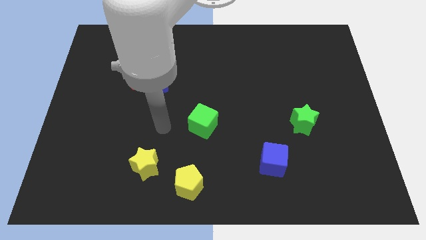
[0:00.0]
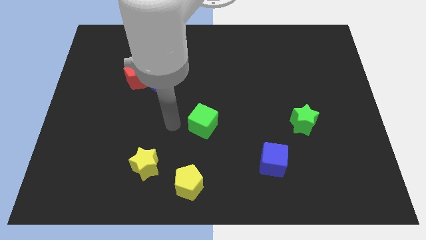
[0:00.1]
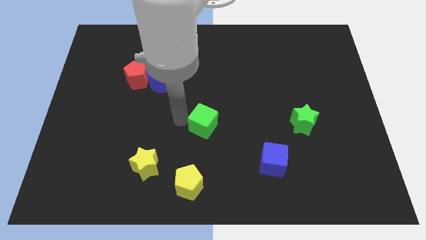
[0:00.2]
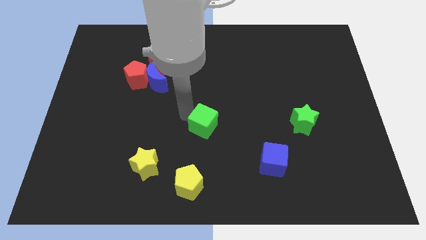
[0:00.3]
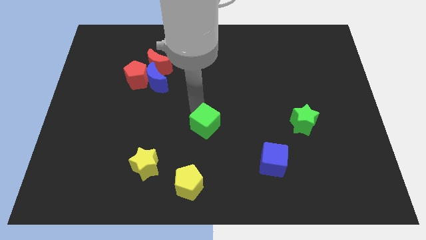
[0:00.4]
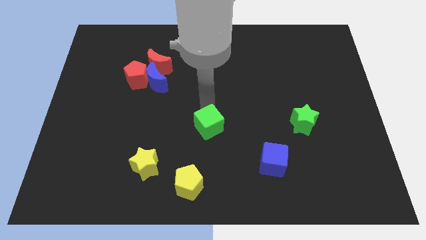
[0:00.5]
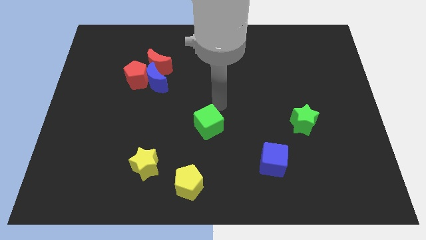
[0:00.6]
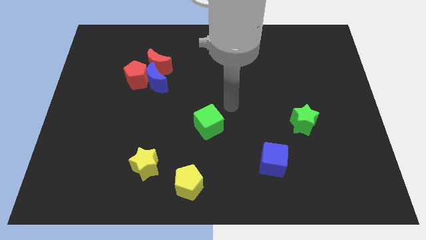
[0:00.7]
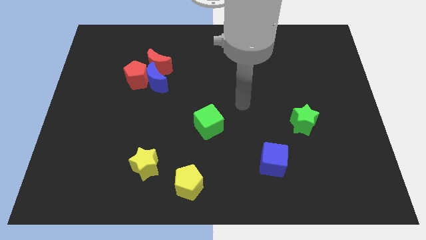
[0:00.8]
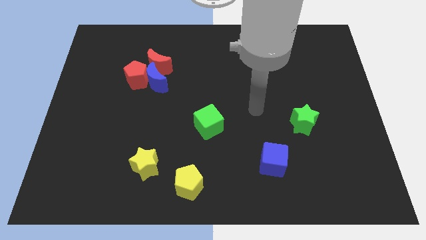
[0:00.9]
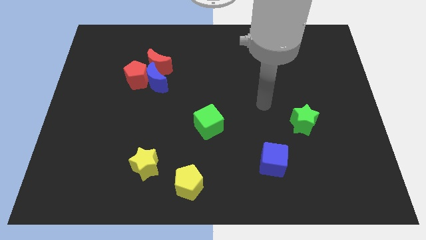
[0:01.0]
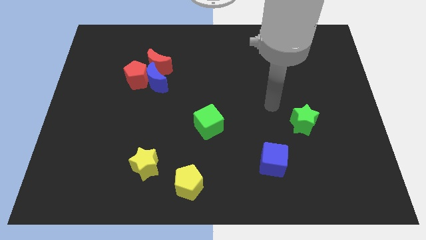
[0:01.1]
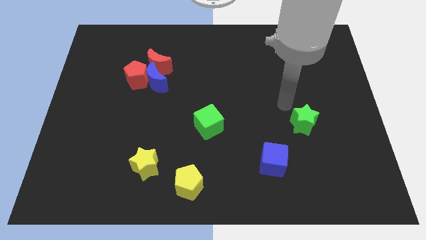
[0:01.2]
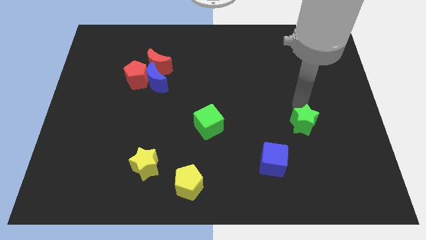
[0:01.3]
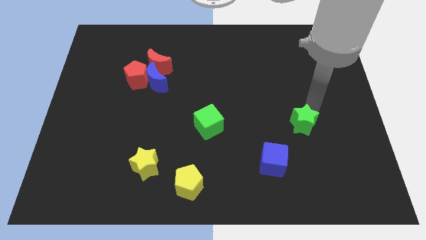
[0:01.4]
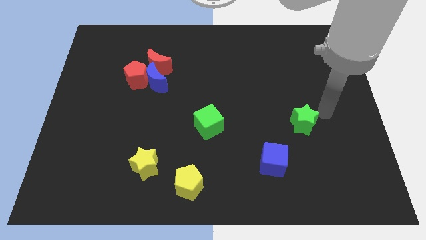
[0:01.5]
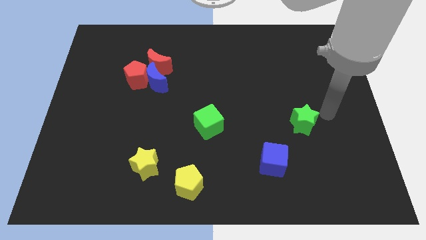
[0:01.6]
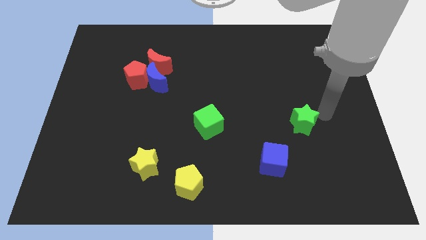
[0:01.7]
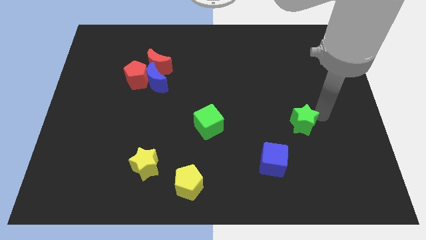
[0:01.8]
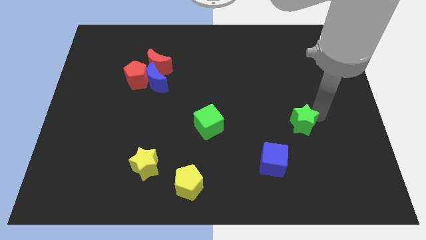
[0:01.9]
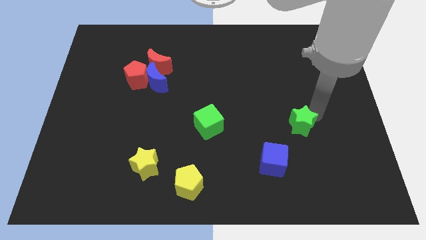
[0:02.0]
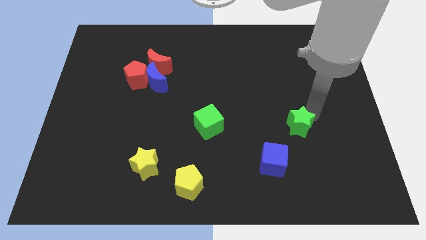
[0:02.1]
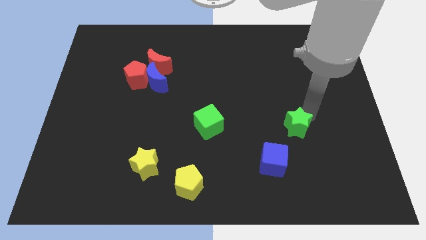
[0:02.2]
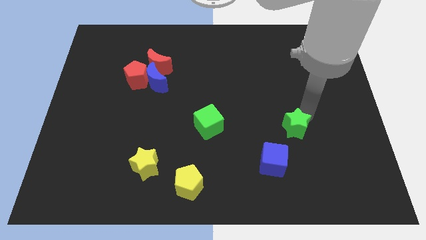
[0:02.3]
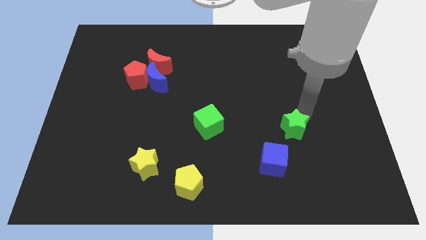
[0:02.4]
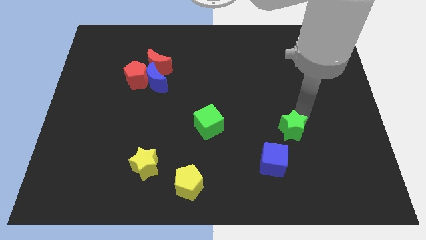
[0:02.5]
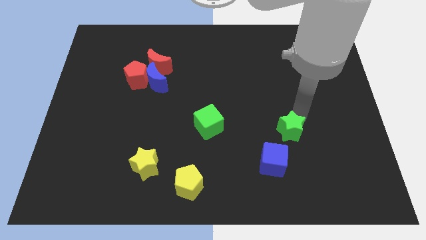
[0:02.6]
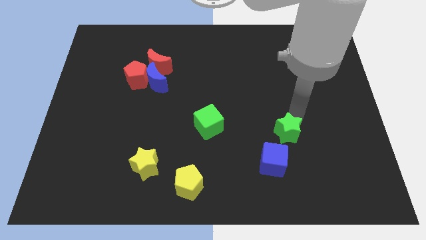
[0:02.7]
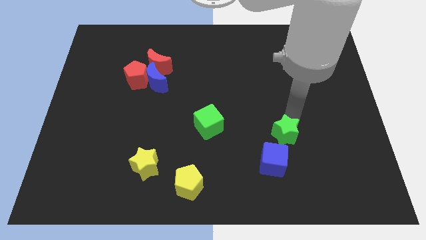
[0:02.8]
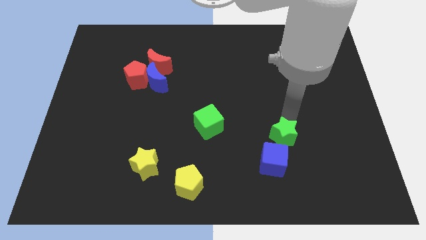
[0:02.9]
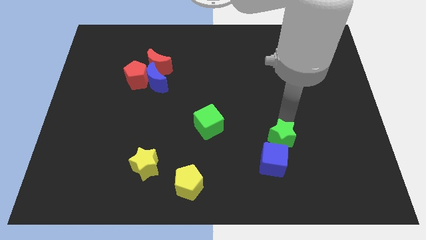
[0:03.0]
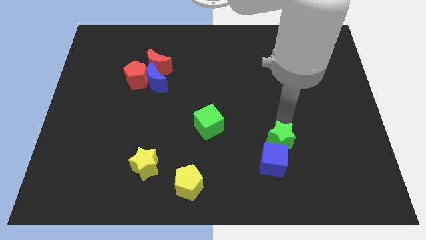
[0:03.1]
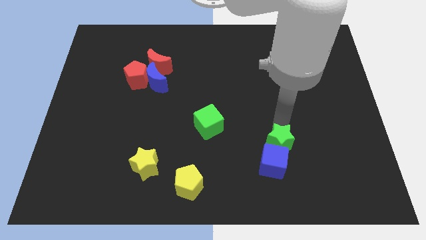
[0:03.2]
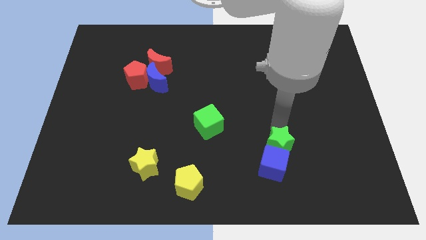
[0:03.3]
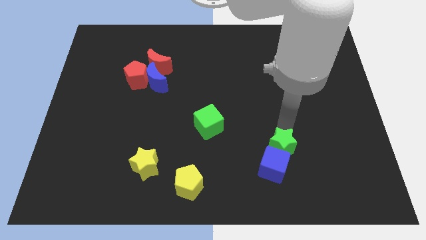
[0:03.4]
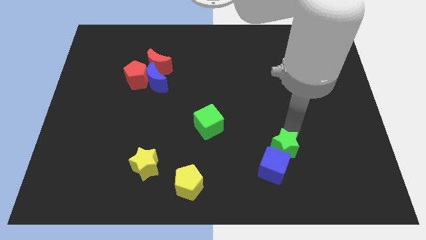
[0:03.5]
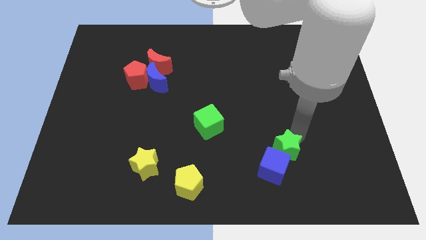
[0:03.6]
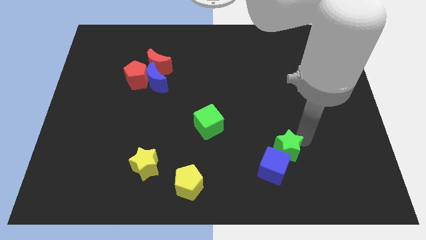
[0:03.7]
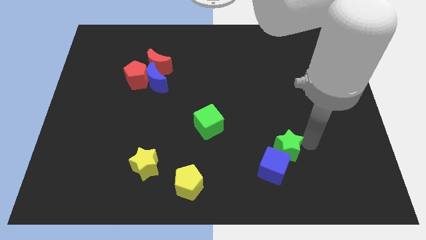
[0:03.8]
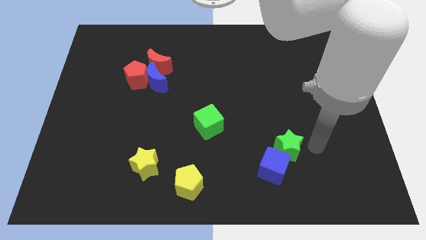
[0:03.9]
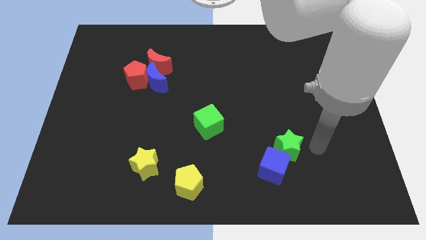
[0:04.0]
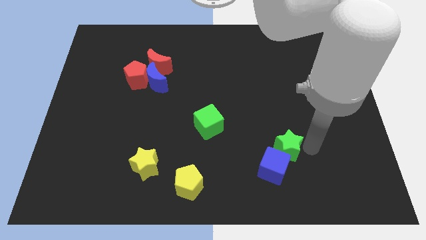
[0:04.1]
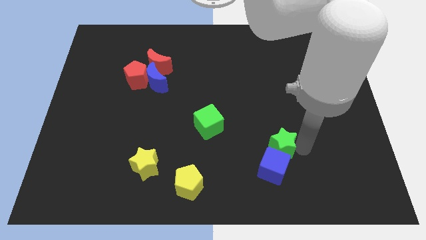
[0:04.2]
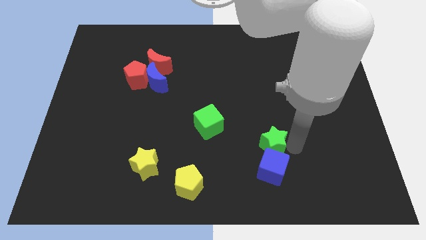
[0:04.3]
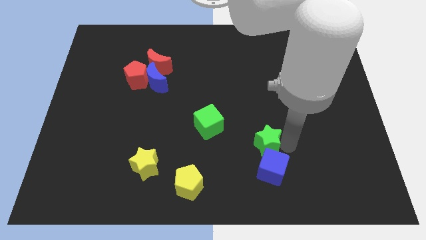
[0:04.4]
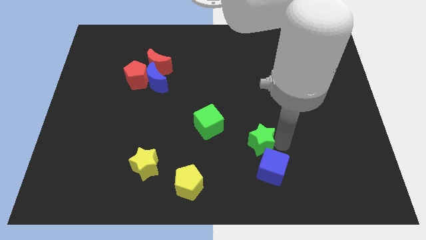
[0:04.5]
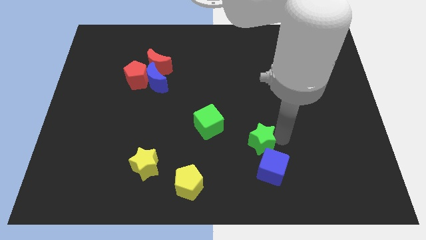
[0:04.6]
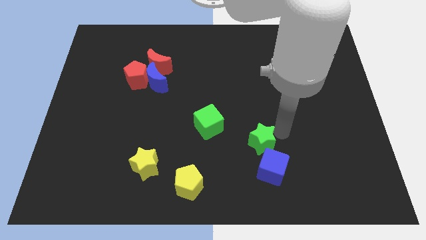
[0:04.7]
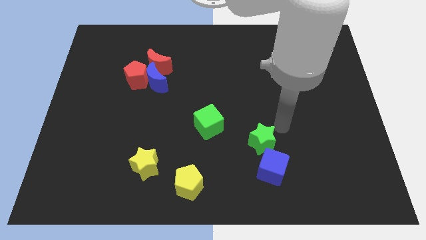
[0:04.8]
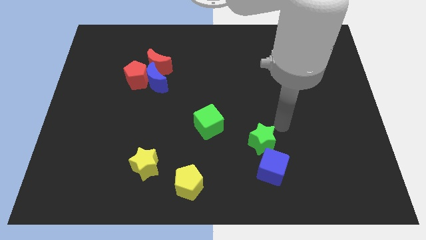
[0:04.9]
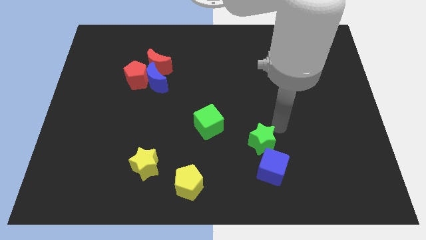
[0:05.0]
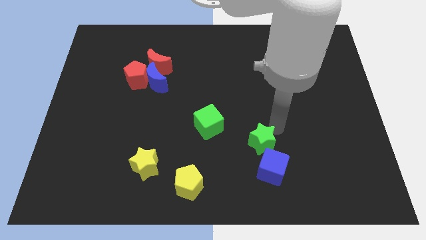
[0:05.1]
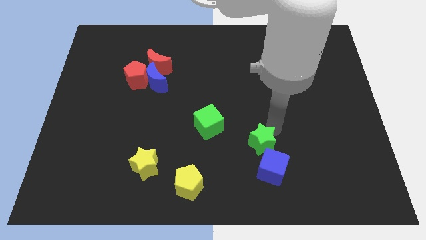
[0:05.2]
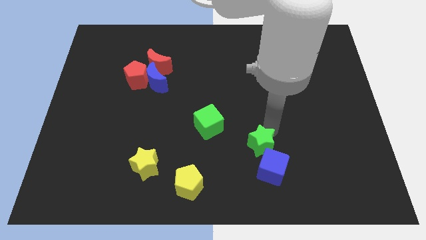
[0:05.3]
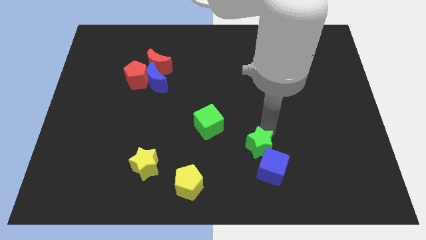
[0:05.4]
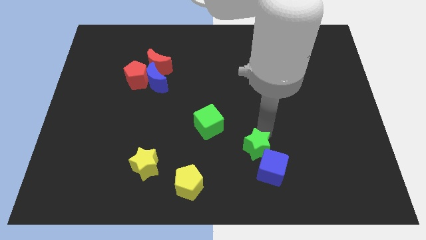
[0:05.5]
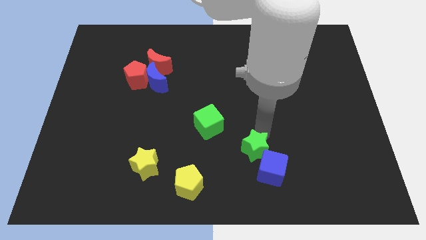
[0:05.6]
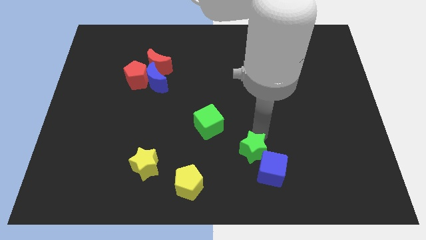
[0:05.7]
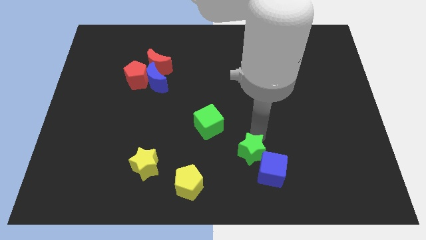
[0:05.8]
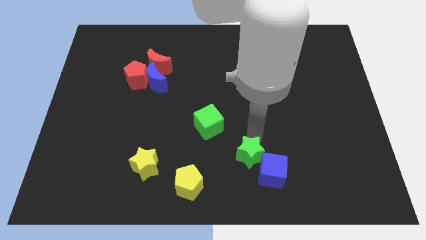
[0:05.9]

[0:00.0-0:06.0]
slide the green star left of the blue cube

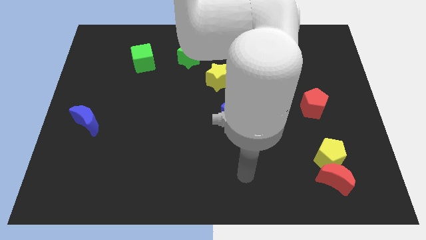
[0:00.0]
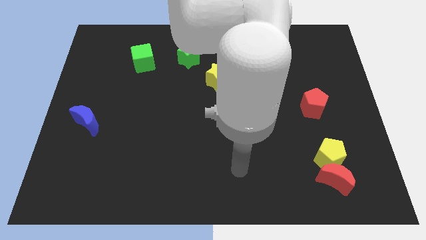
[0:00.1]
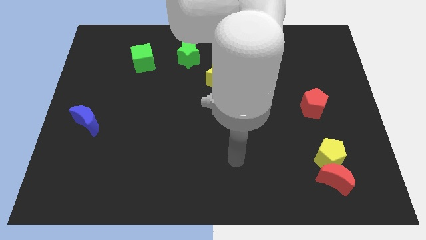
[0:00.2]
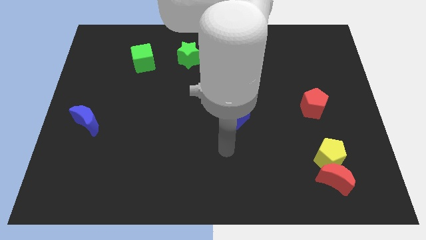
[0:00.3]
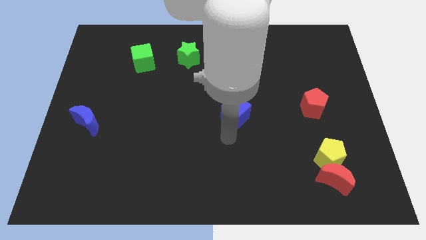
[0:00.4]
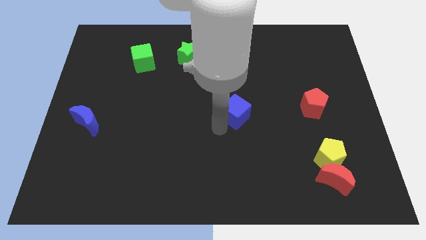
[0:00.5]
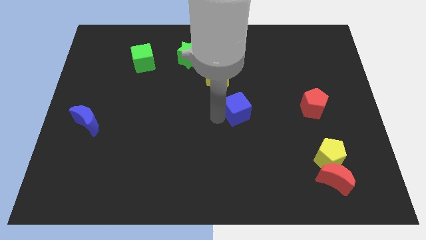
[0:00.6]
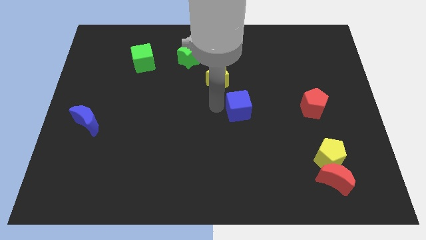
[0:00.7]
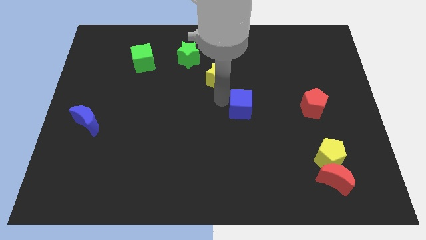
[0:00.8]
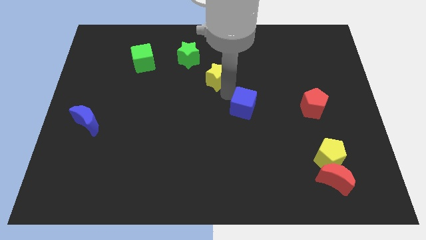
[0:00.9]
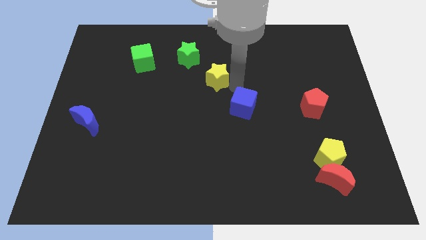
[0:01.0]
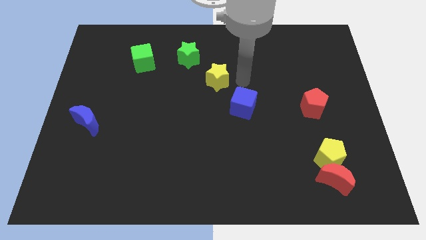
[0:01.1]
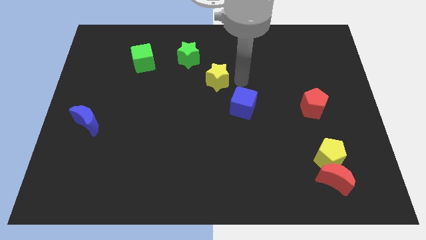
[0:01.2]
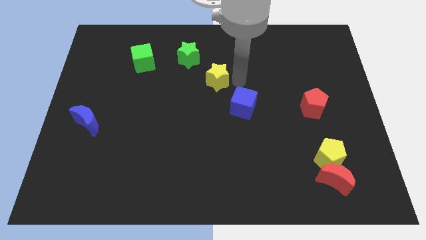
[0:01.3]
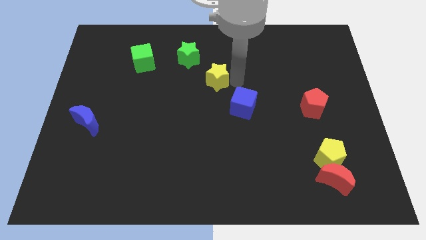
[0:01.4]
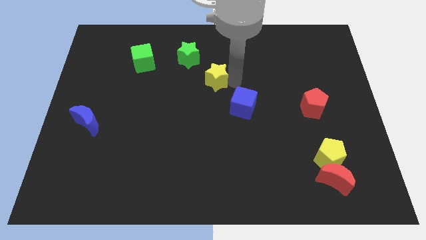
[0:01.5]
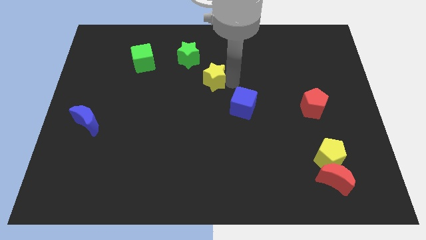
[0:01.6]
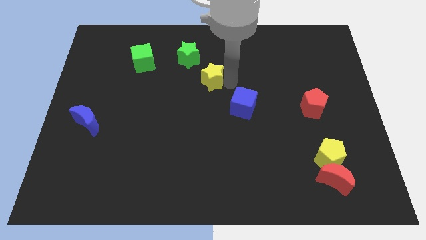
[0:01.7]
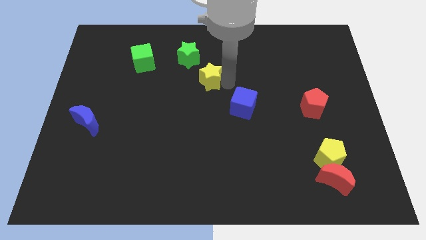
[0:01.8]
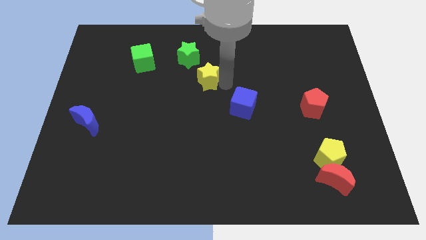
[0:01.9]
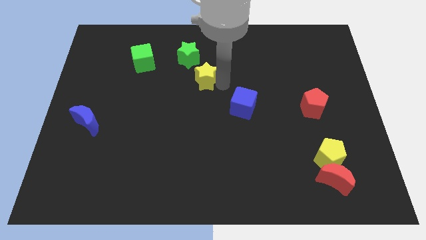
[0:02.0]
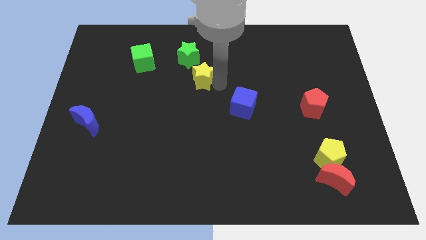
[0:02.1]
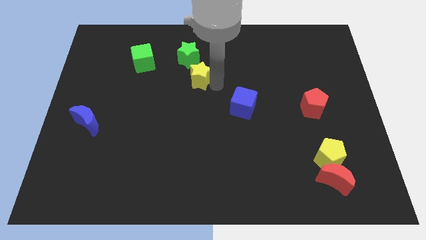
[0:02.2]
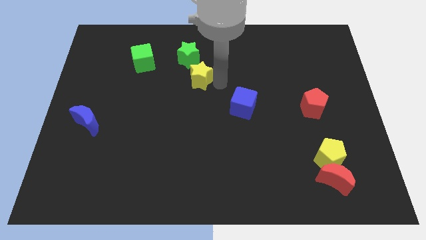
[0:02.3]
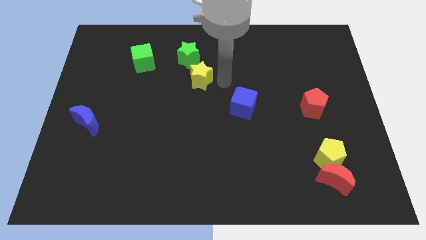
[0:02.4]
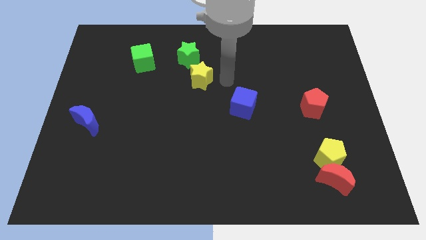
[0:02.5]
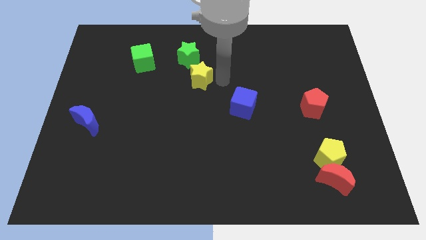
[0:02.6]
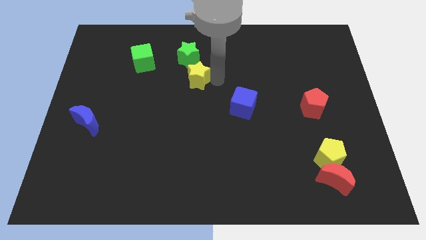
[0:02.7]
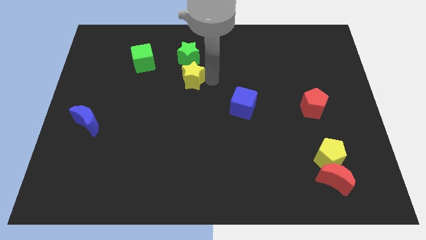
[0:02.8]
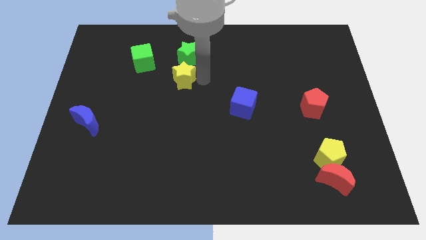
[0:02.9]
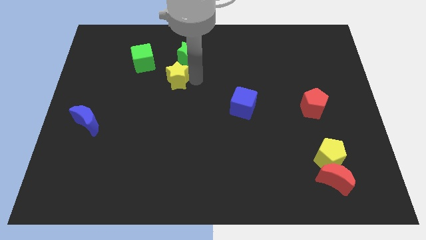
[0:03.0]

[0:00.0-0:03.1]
move the yellow star to the bottom right of the green cube
